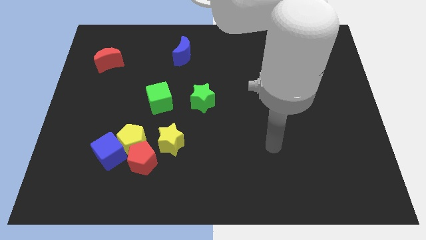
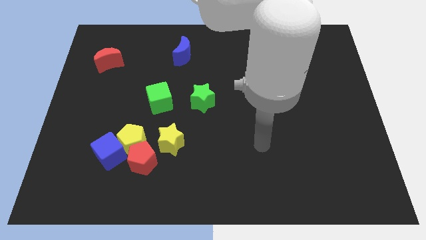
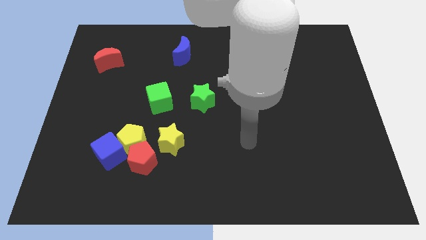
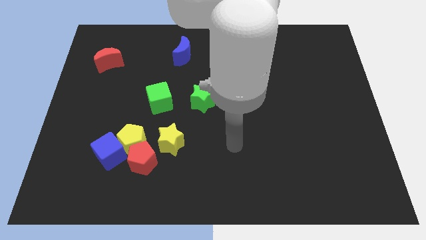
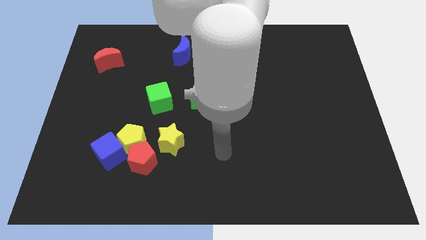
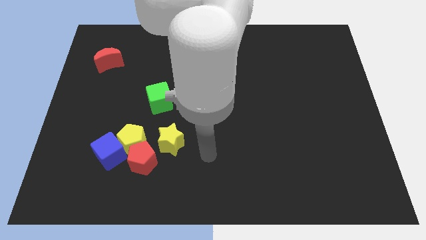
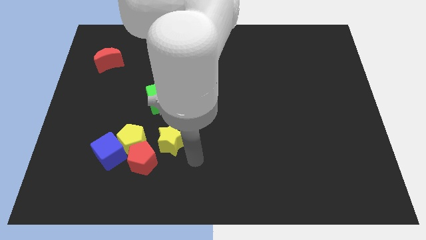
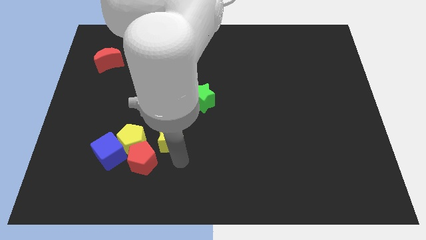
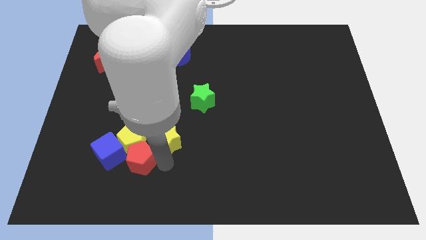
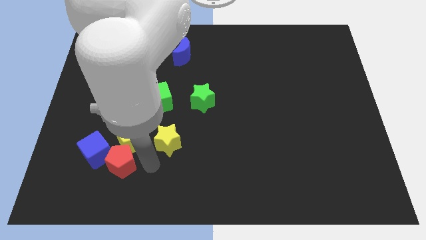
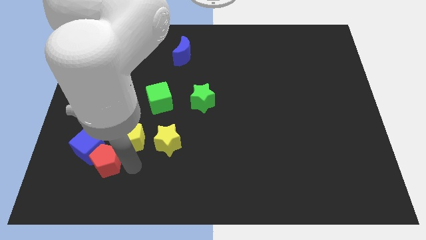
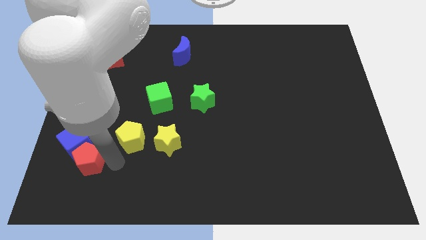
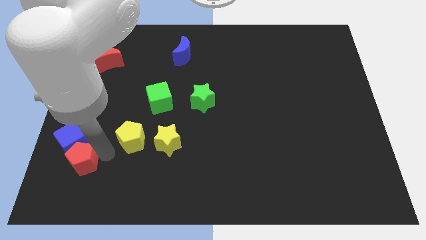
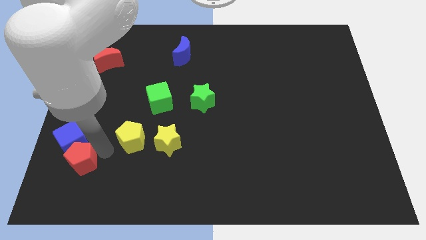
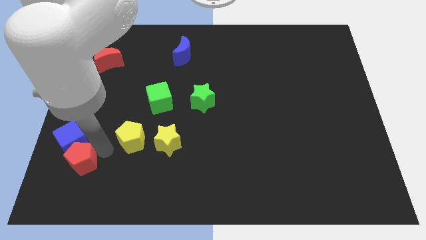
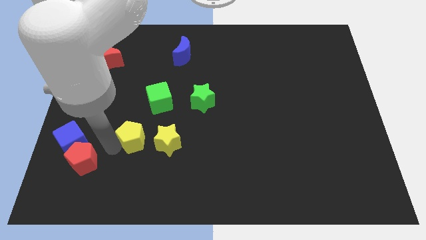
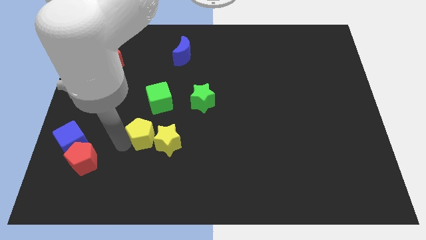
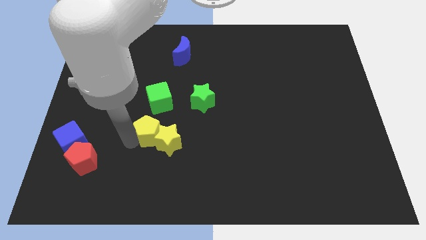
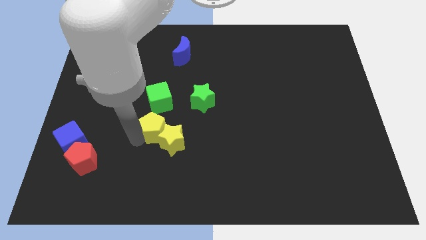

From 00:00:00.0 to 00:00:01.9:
move the yellow pentagon away from the clump

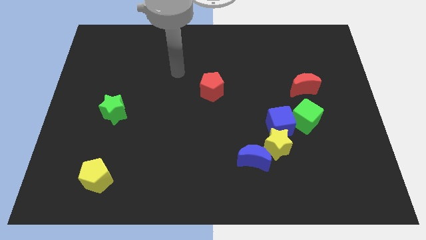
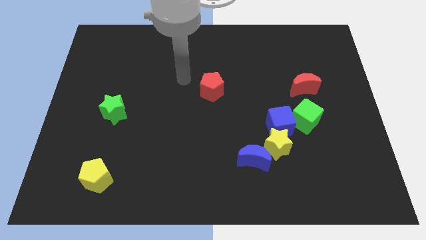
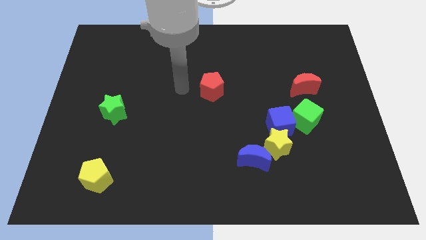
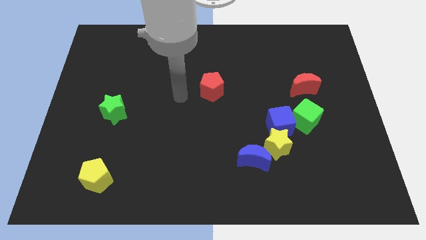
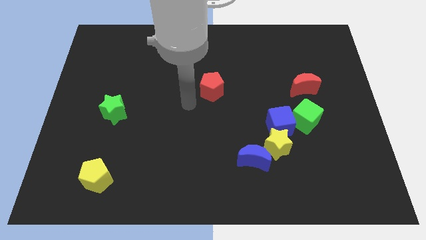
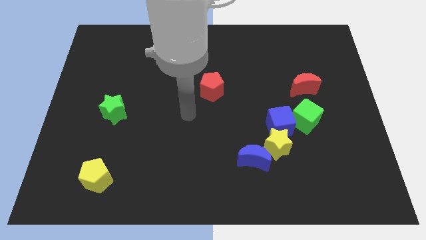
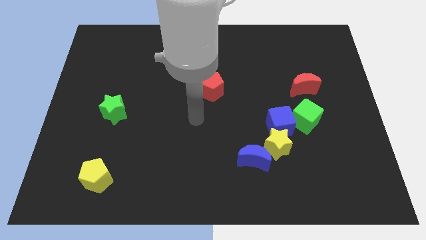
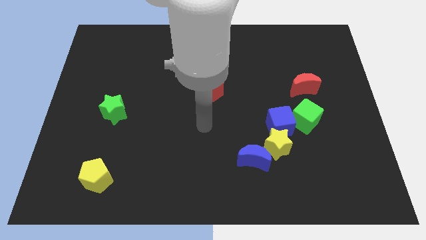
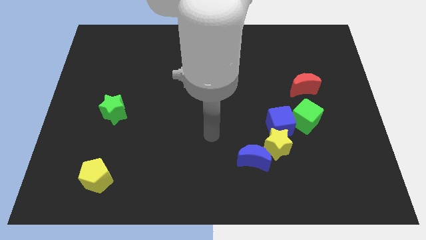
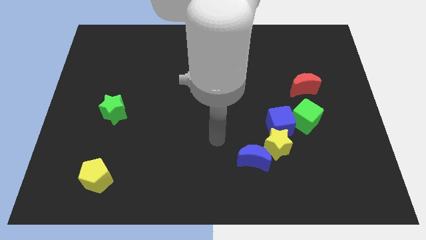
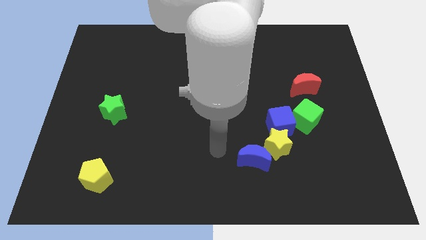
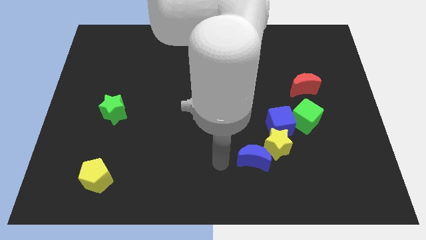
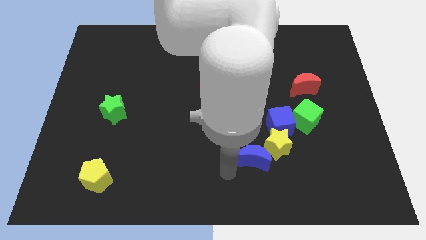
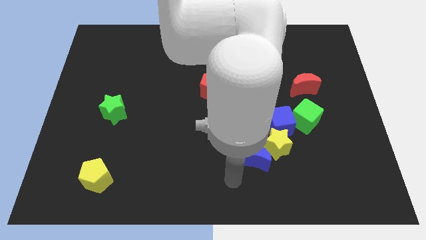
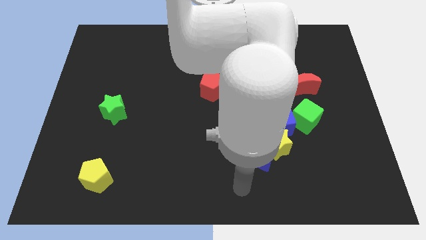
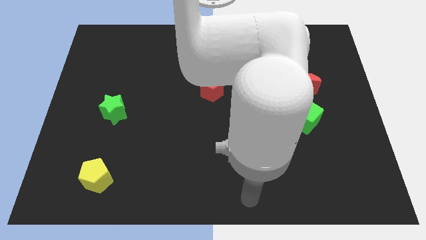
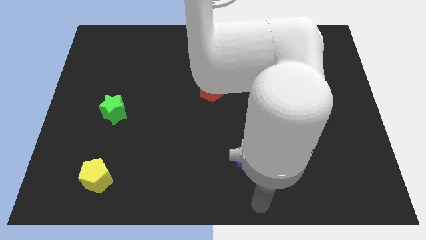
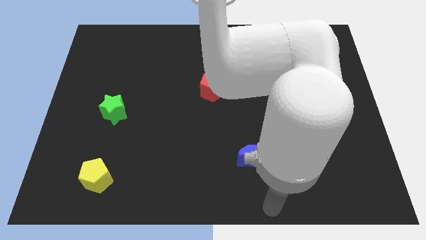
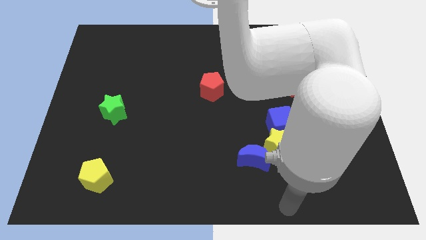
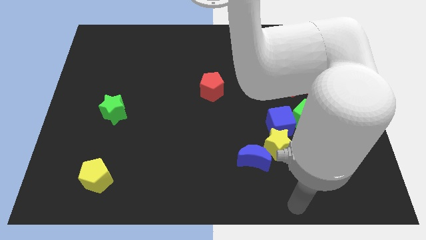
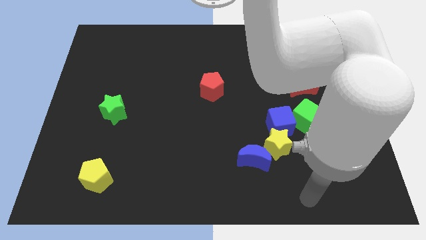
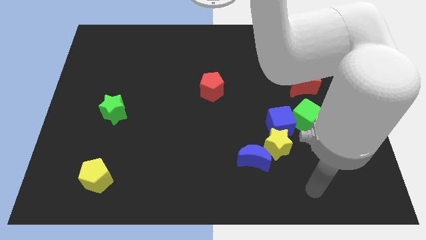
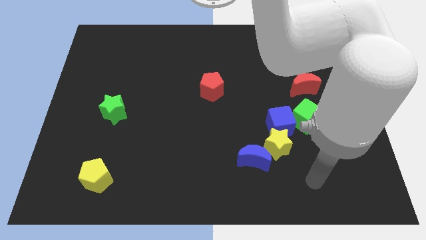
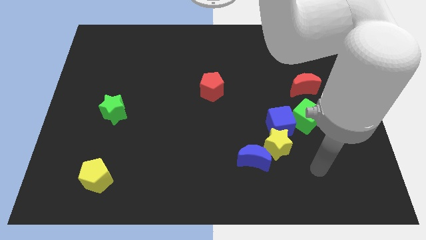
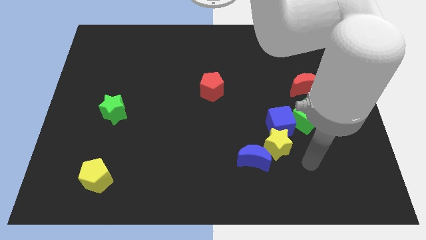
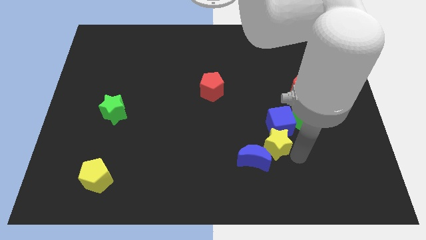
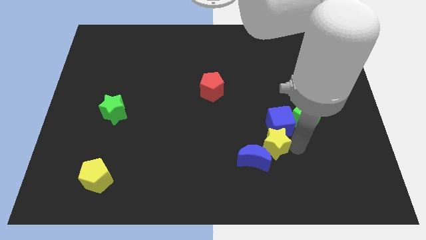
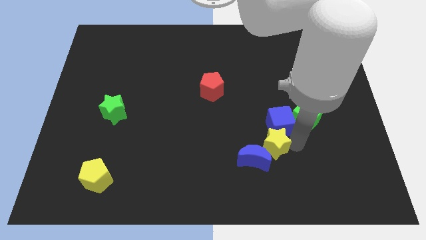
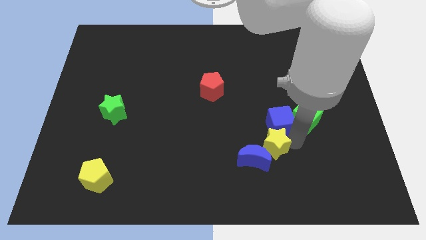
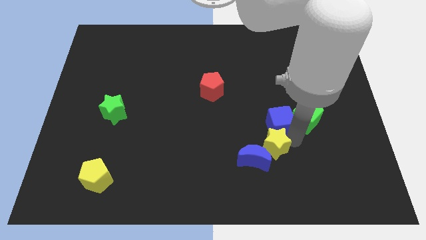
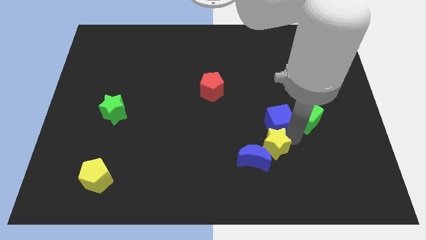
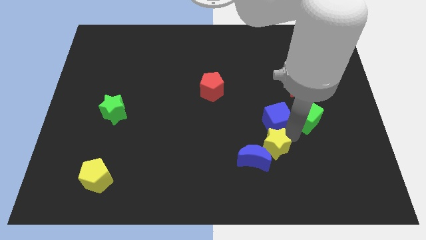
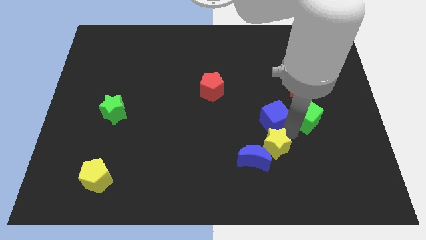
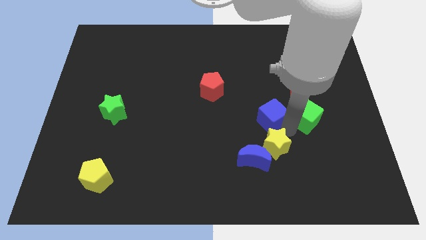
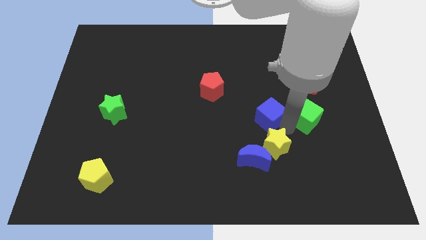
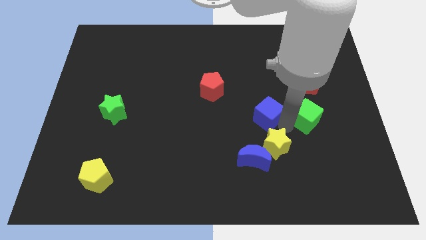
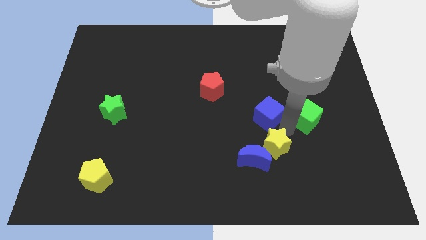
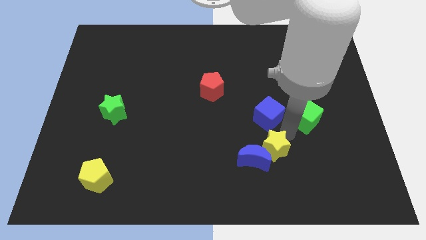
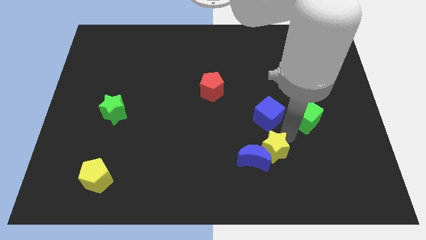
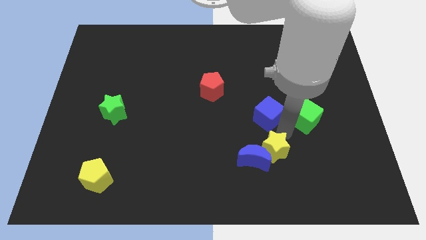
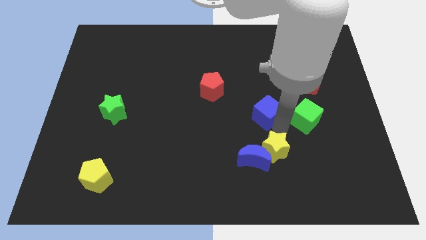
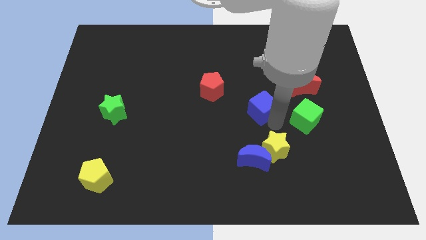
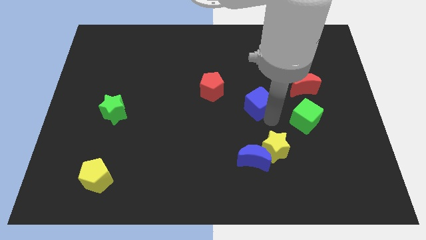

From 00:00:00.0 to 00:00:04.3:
separate the blue cube from the yellow star and green cube

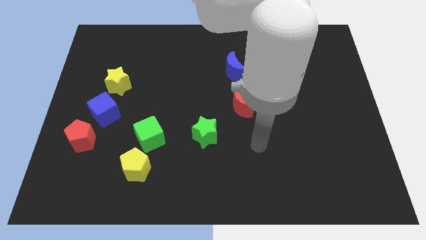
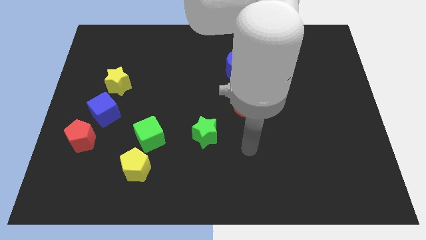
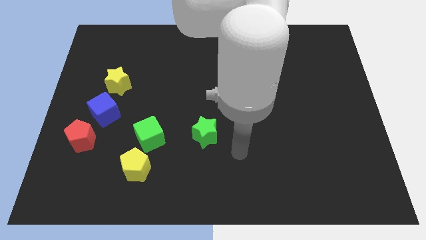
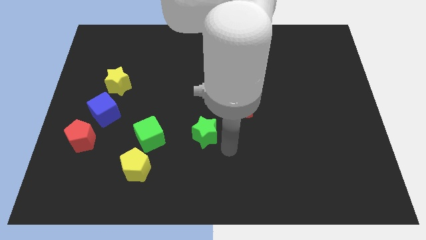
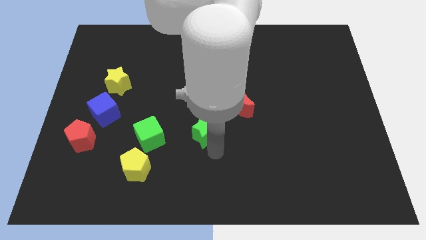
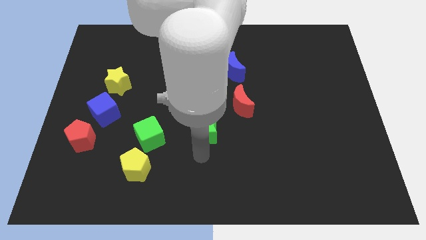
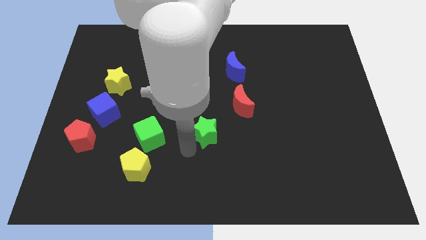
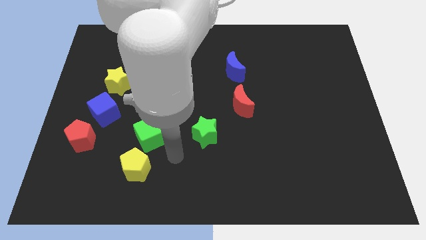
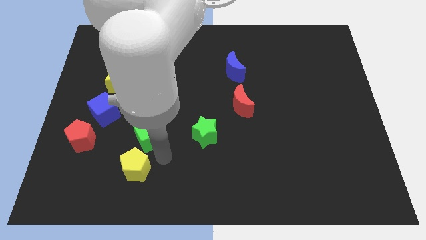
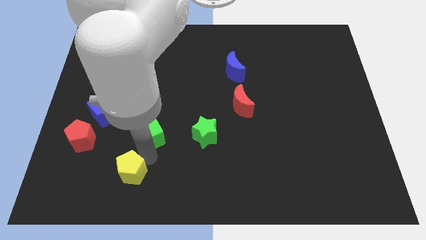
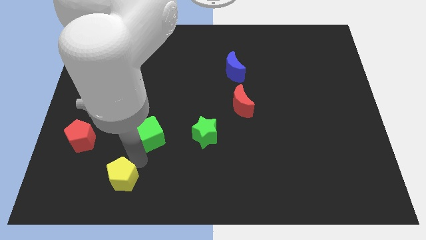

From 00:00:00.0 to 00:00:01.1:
move the green cube away from the yellow pentagon

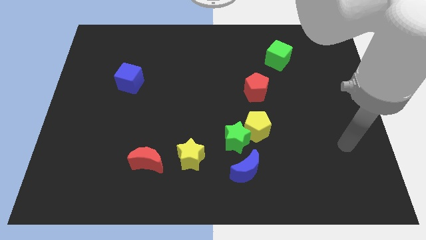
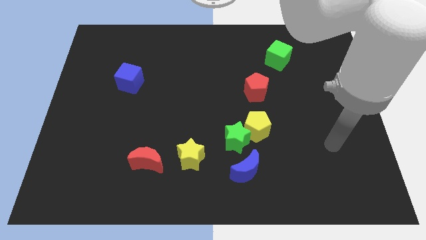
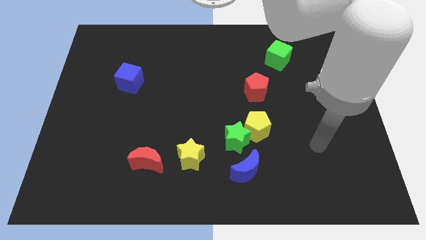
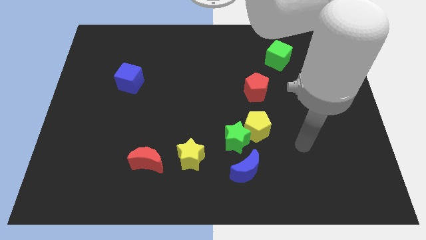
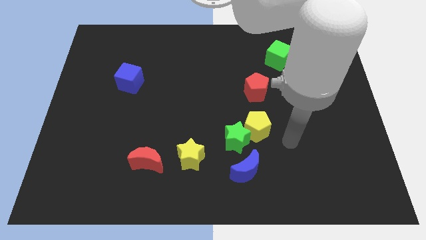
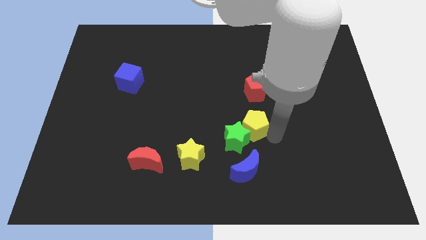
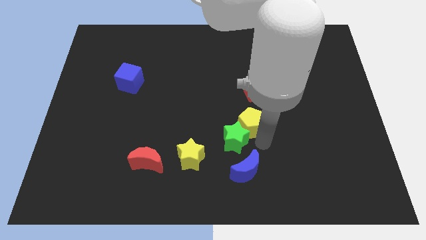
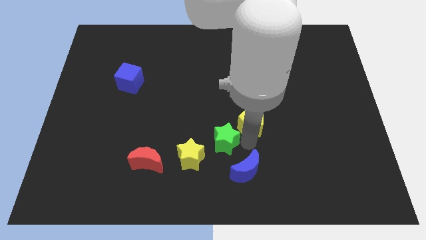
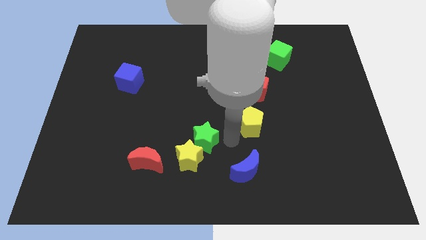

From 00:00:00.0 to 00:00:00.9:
move the yellow pentagon away from the green star

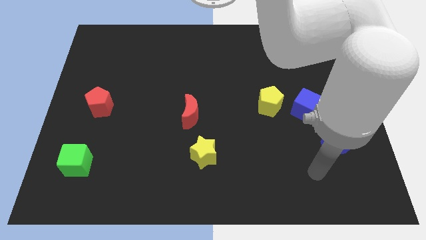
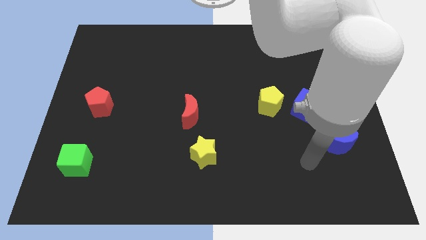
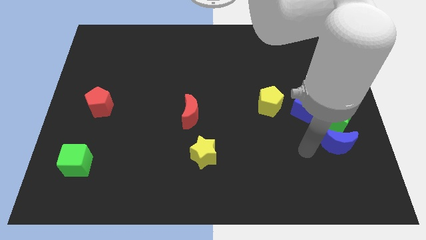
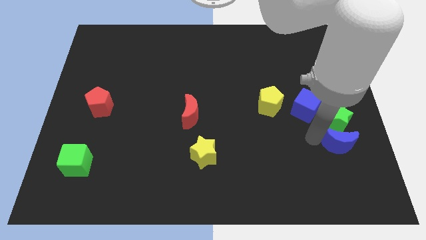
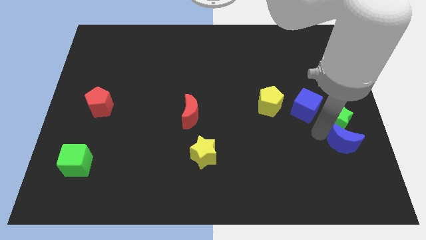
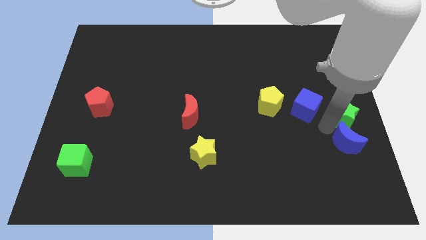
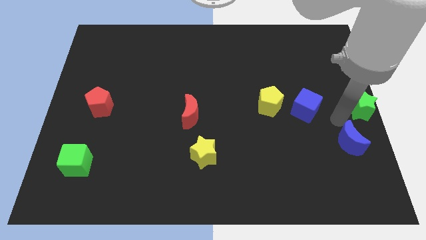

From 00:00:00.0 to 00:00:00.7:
separate the blue moon from the green star

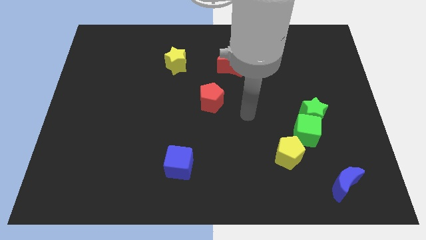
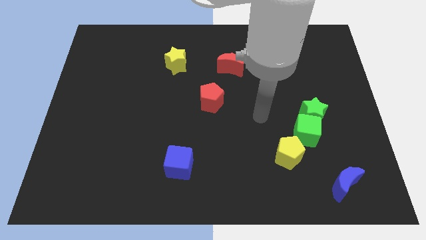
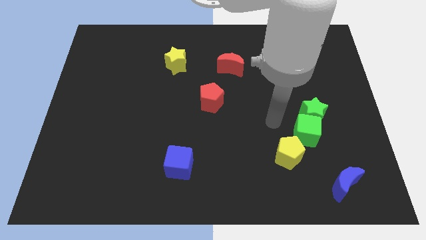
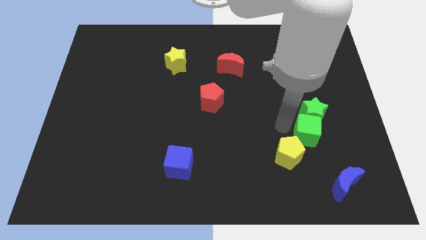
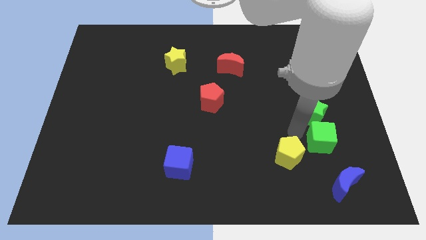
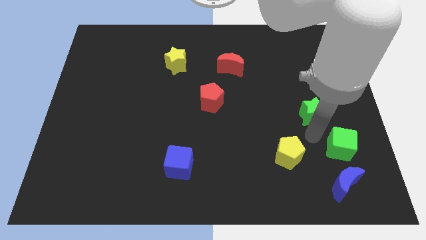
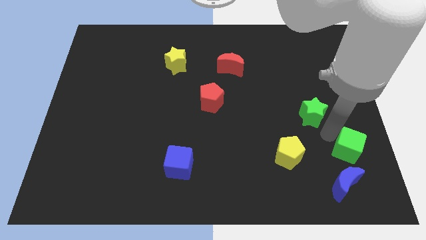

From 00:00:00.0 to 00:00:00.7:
separate the green star from the green cube
